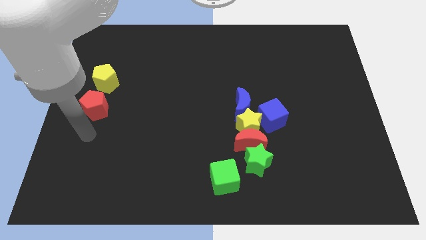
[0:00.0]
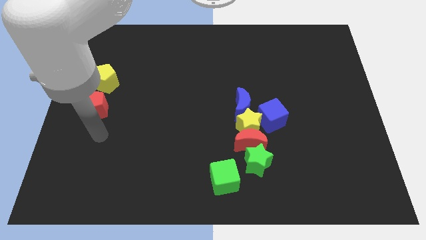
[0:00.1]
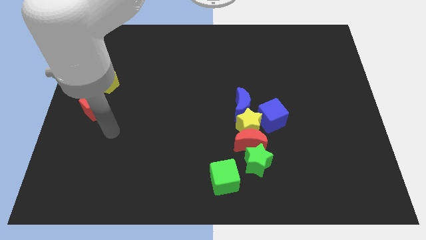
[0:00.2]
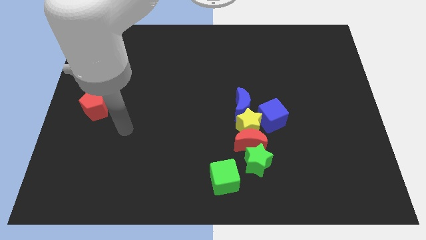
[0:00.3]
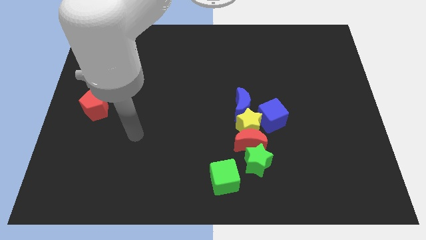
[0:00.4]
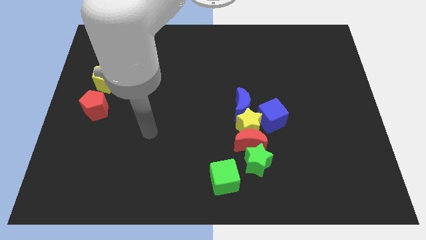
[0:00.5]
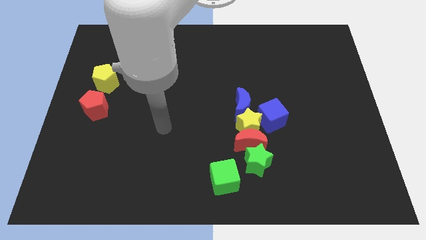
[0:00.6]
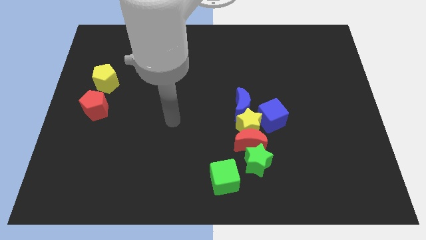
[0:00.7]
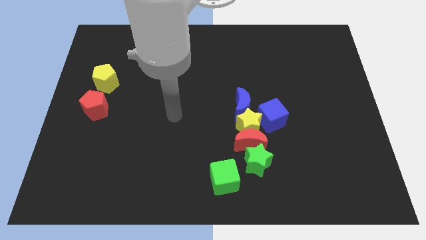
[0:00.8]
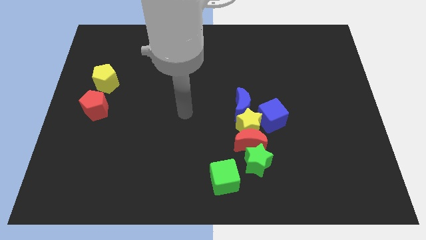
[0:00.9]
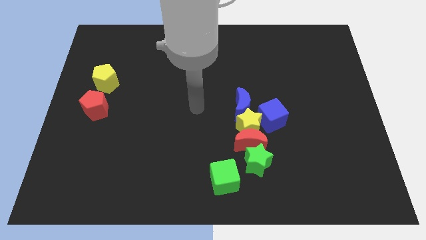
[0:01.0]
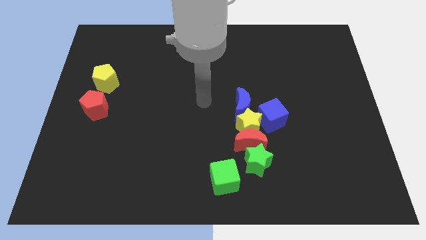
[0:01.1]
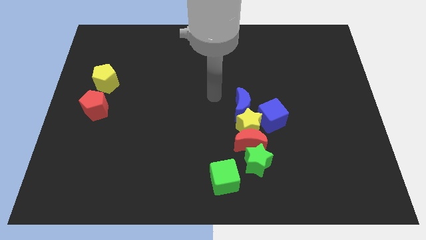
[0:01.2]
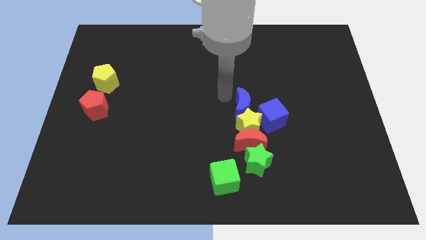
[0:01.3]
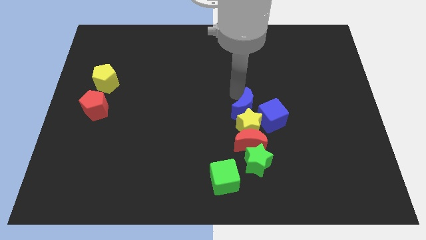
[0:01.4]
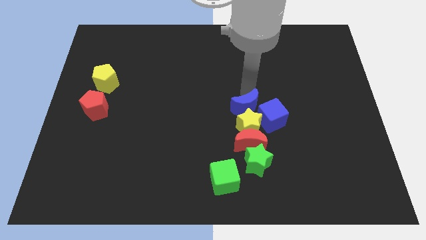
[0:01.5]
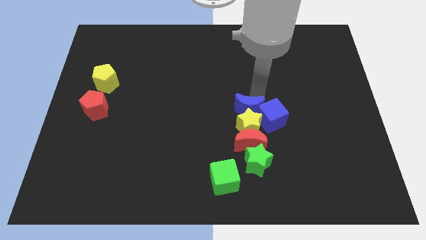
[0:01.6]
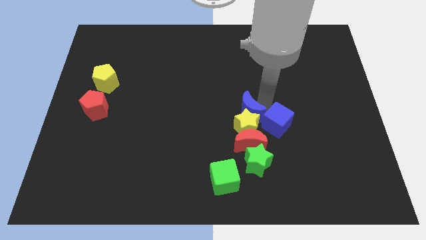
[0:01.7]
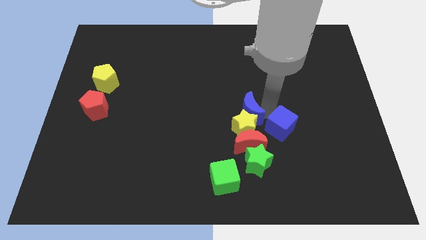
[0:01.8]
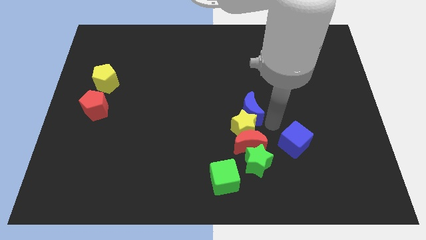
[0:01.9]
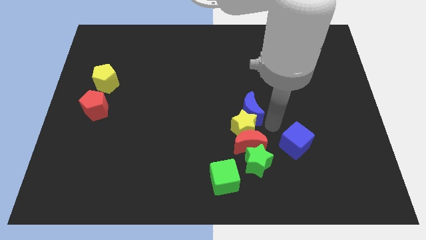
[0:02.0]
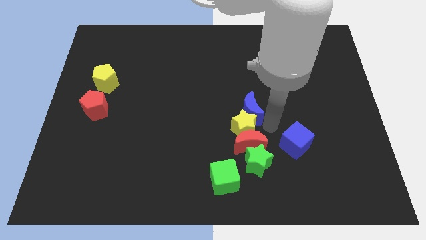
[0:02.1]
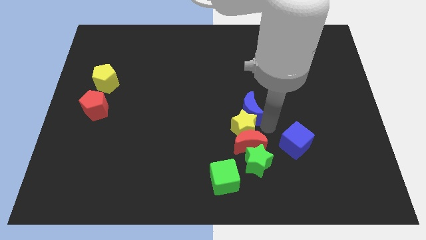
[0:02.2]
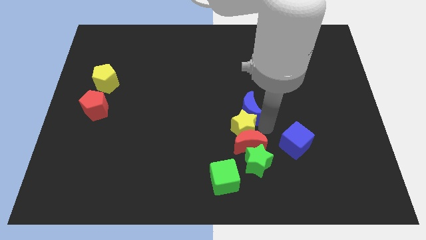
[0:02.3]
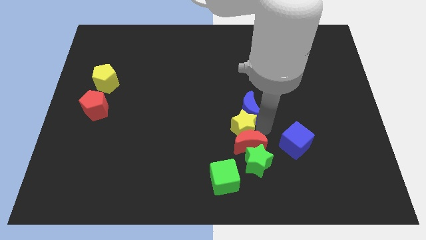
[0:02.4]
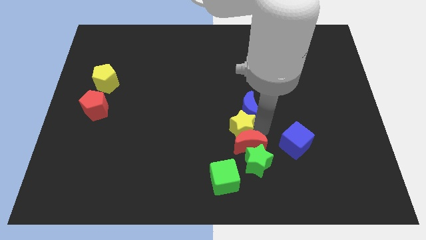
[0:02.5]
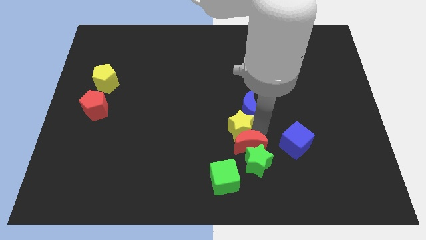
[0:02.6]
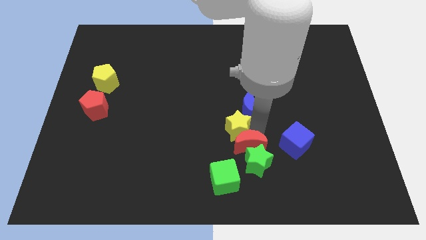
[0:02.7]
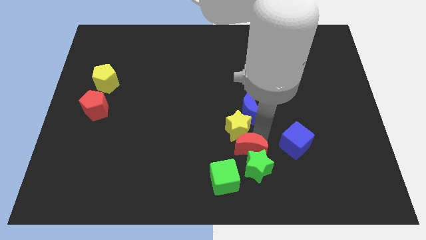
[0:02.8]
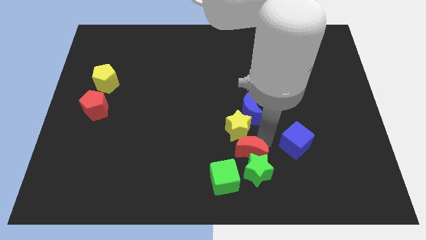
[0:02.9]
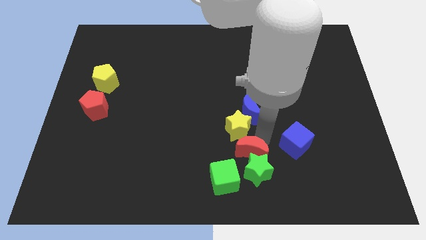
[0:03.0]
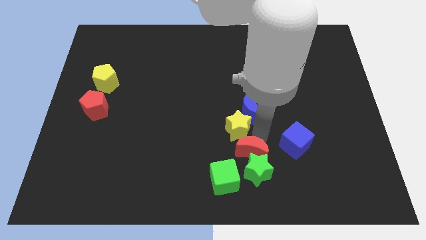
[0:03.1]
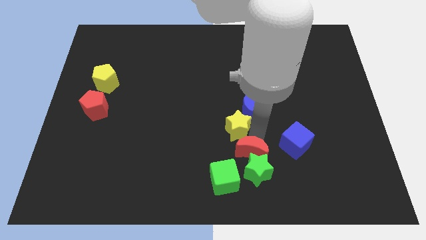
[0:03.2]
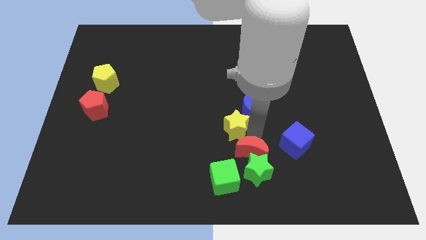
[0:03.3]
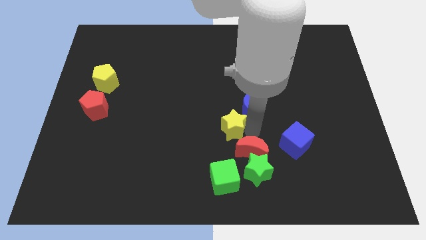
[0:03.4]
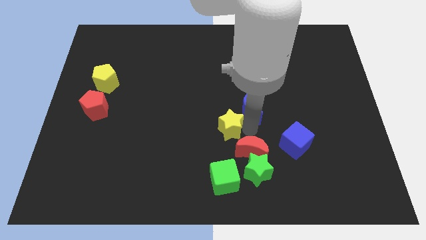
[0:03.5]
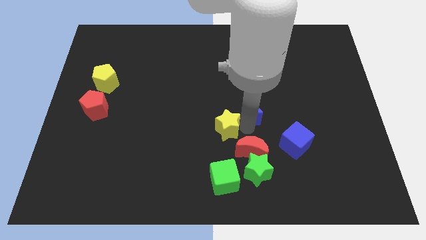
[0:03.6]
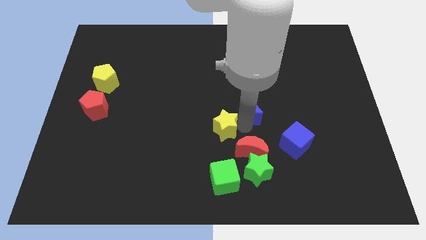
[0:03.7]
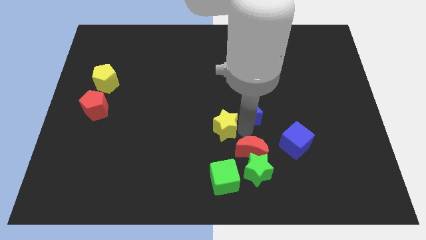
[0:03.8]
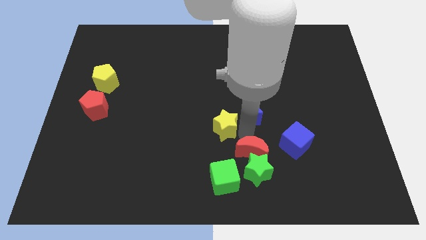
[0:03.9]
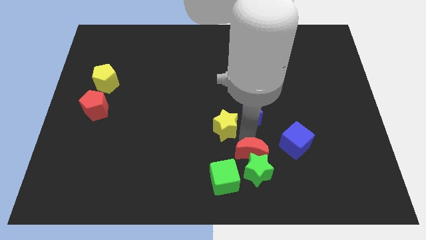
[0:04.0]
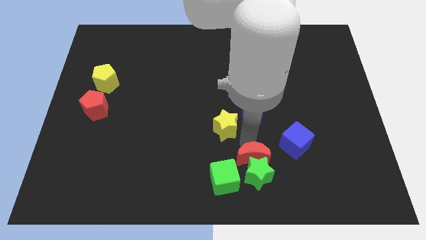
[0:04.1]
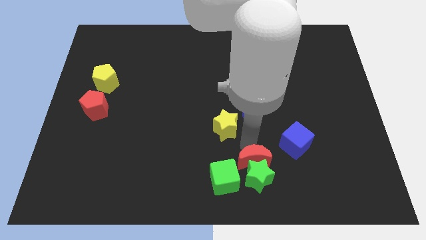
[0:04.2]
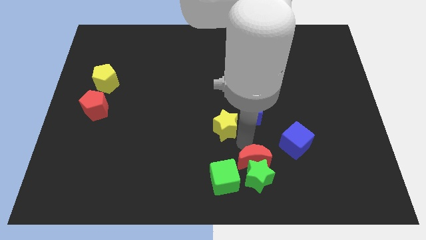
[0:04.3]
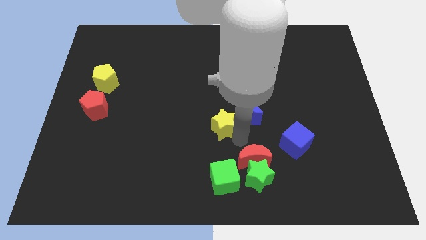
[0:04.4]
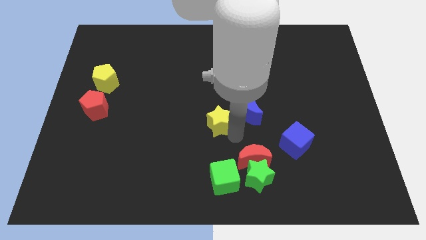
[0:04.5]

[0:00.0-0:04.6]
pull the yellow star apart from the clump

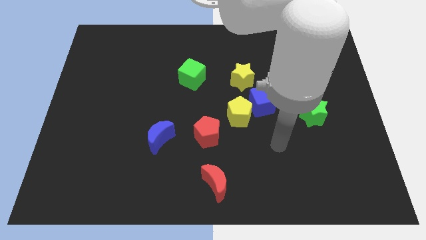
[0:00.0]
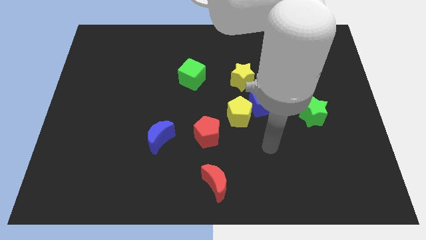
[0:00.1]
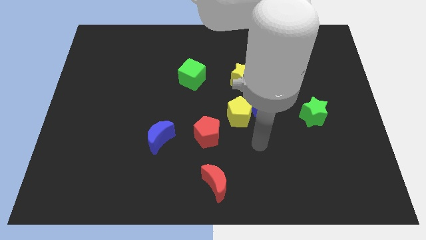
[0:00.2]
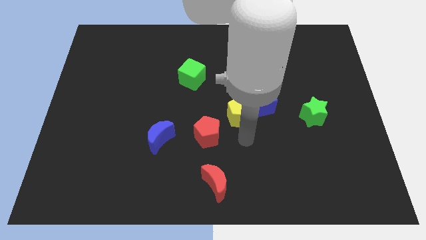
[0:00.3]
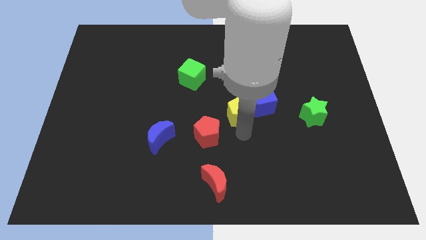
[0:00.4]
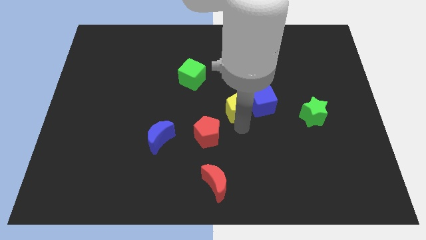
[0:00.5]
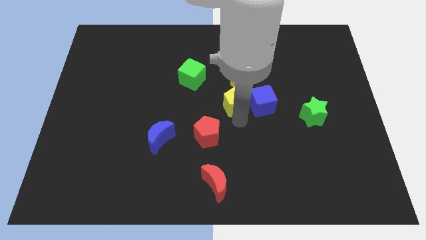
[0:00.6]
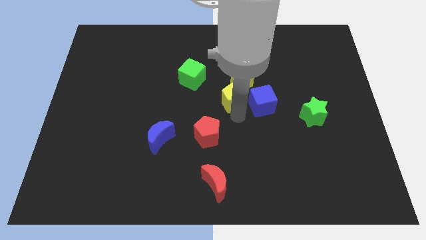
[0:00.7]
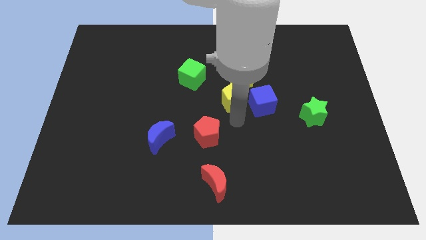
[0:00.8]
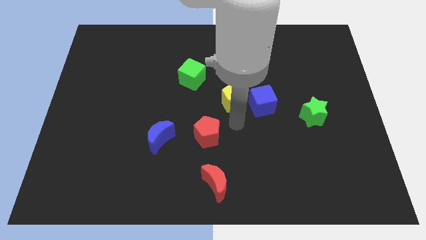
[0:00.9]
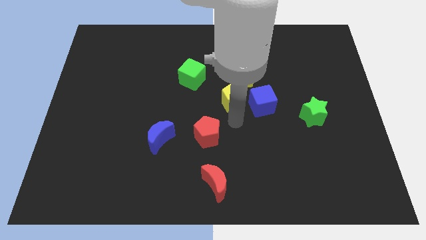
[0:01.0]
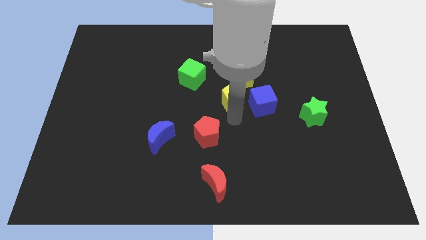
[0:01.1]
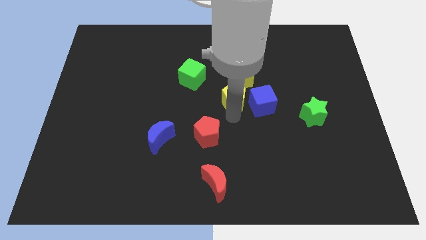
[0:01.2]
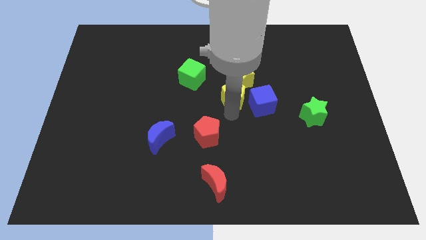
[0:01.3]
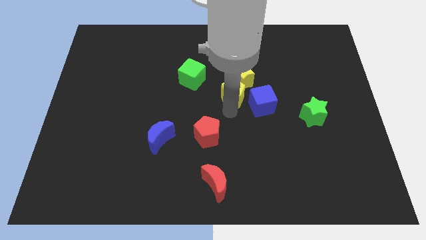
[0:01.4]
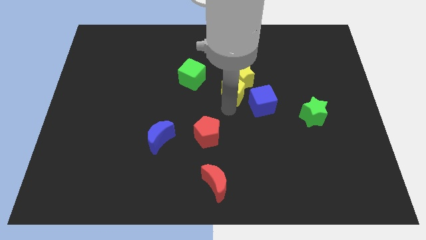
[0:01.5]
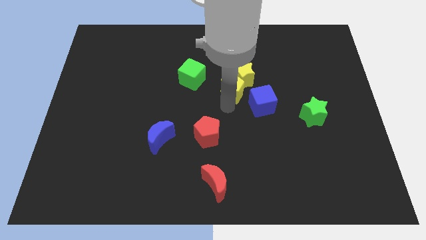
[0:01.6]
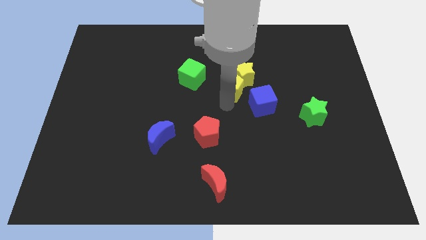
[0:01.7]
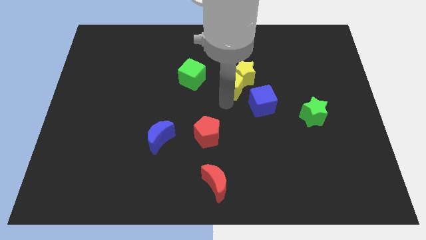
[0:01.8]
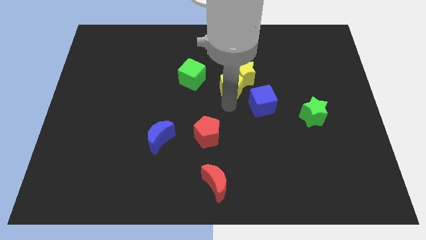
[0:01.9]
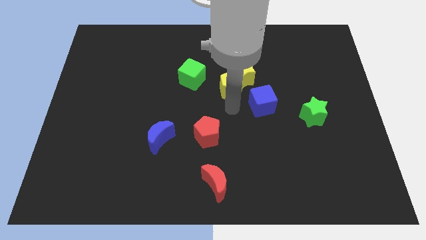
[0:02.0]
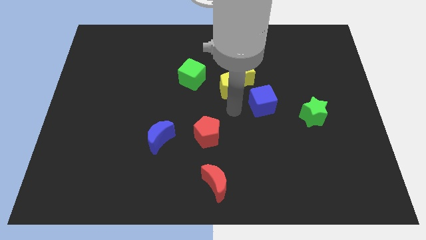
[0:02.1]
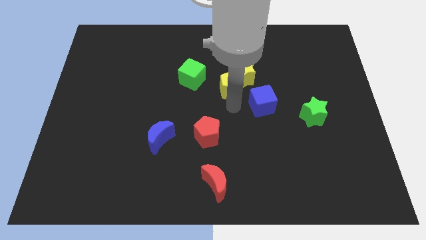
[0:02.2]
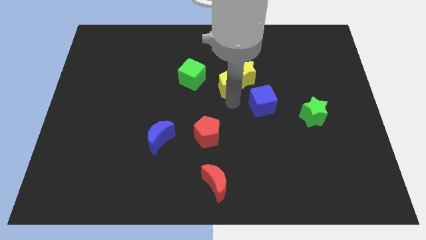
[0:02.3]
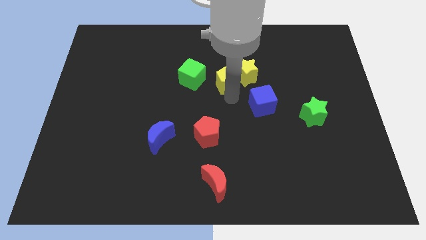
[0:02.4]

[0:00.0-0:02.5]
move the yellow pentagon away from the blue cube and red pentagon

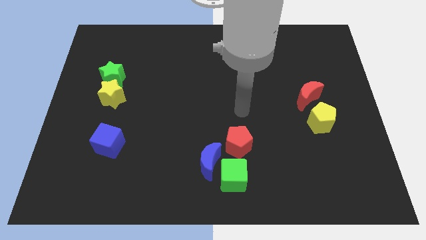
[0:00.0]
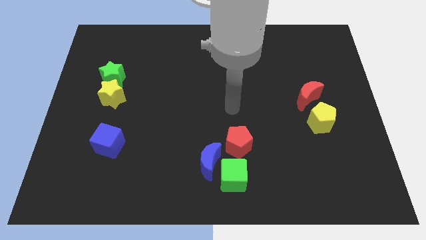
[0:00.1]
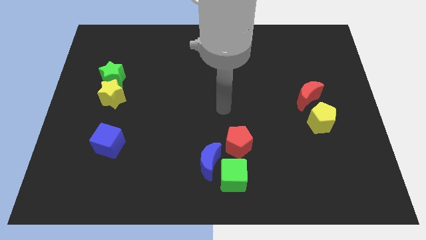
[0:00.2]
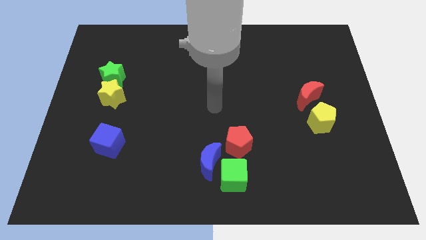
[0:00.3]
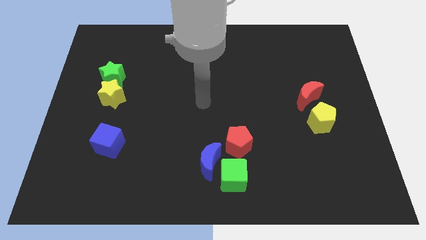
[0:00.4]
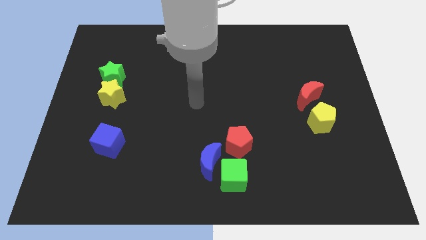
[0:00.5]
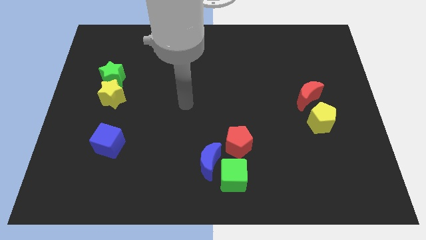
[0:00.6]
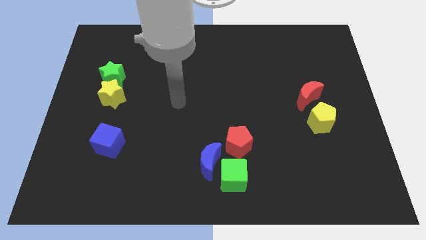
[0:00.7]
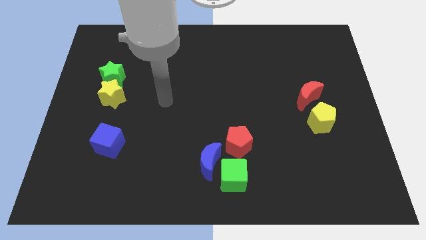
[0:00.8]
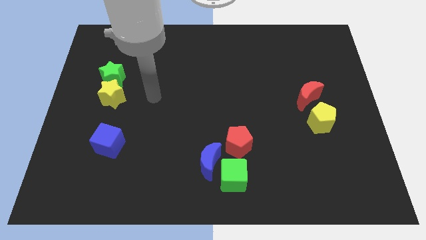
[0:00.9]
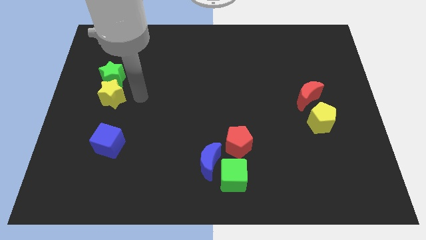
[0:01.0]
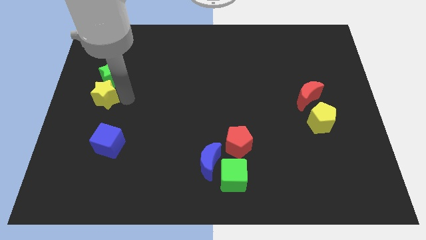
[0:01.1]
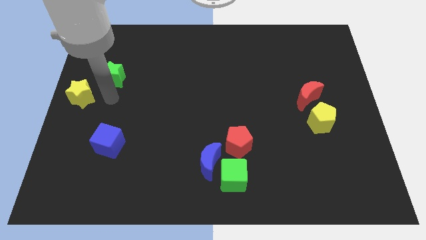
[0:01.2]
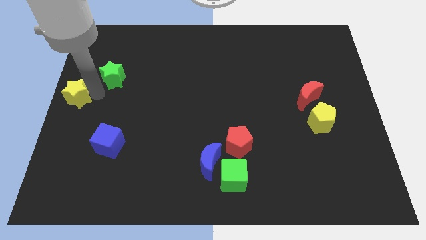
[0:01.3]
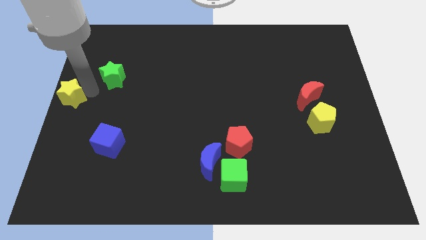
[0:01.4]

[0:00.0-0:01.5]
pull the green star apart from the yellow star

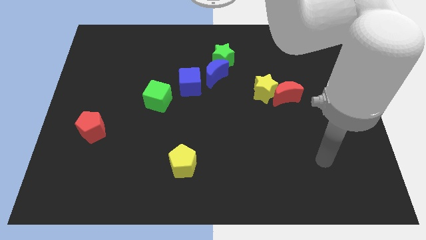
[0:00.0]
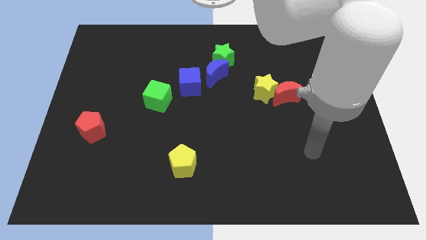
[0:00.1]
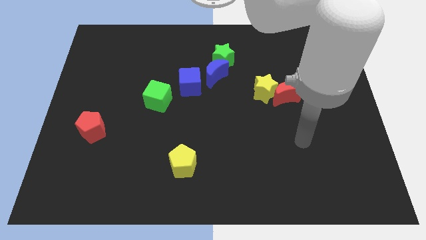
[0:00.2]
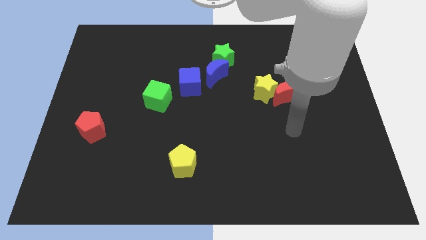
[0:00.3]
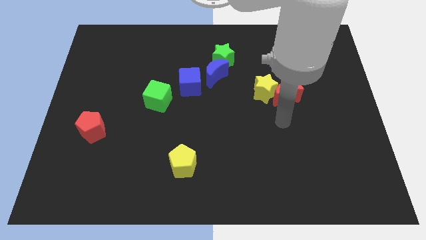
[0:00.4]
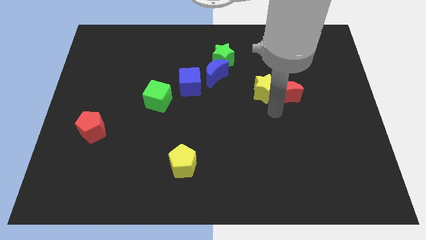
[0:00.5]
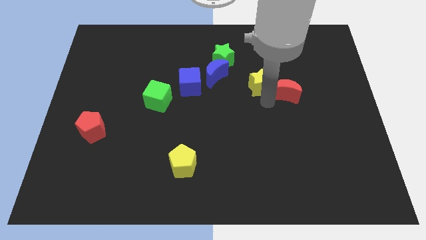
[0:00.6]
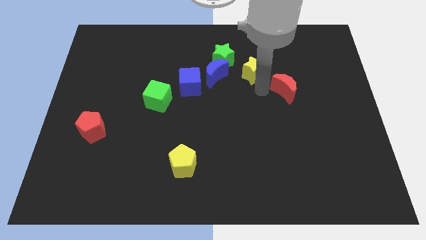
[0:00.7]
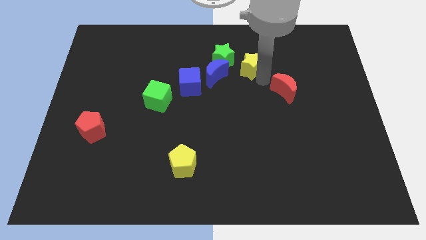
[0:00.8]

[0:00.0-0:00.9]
separate the red moon from the yellow star
